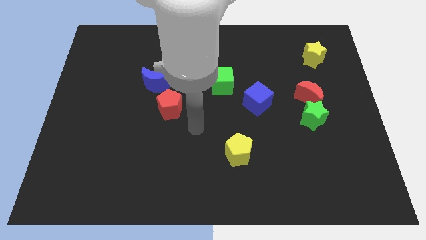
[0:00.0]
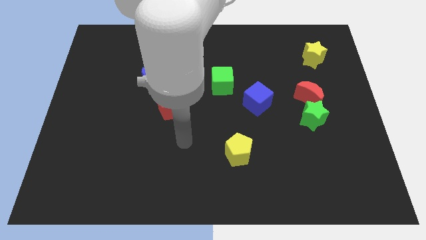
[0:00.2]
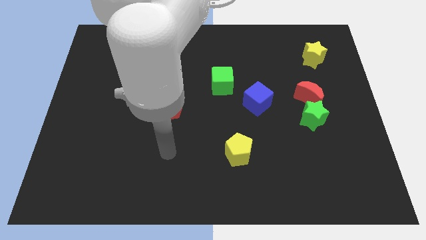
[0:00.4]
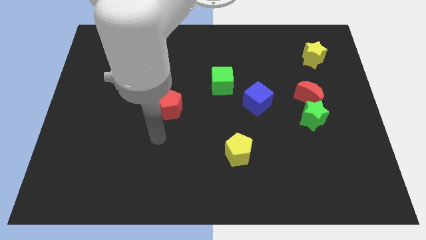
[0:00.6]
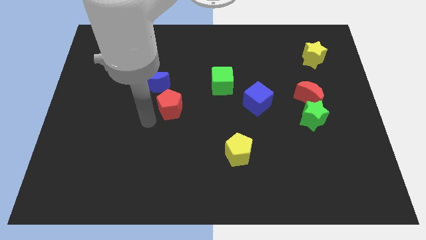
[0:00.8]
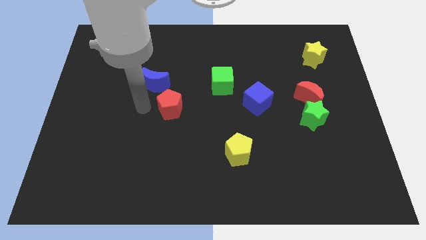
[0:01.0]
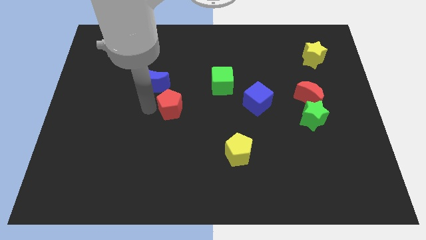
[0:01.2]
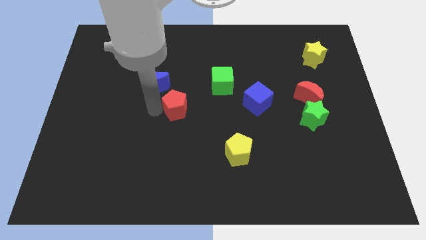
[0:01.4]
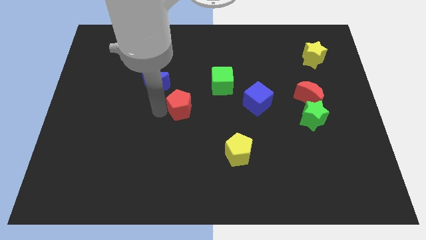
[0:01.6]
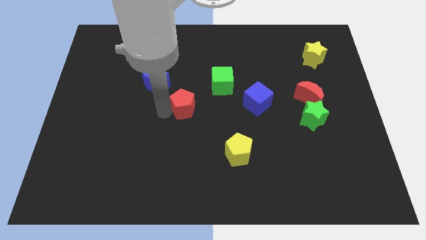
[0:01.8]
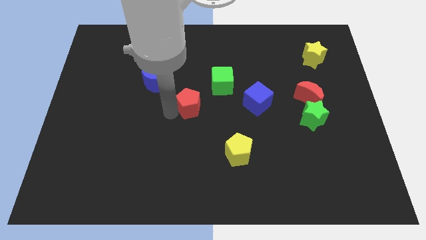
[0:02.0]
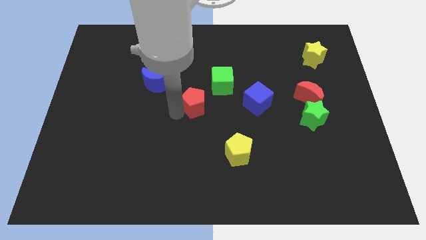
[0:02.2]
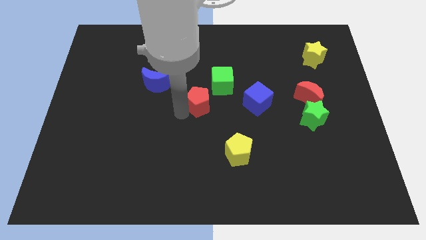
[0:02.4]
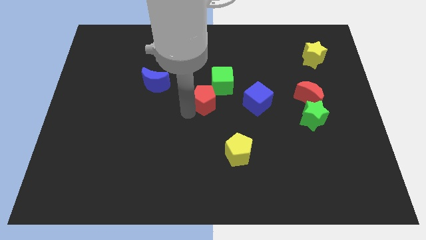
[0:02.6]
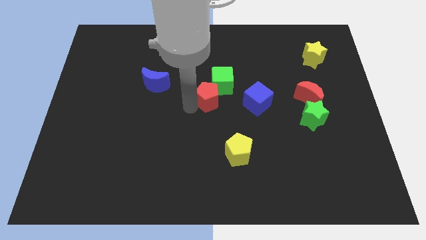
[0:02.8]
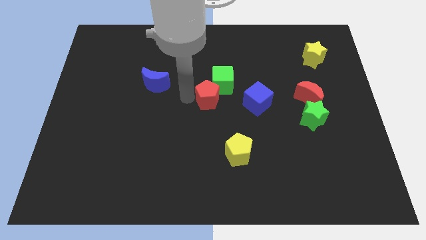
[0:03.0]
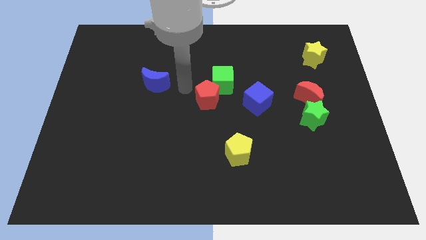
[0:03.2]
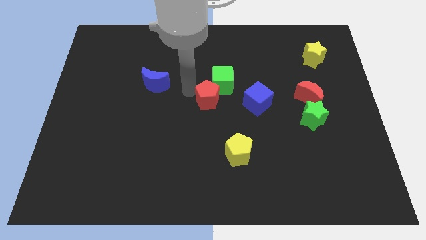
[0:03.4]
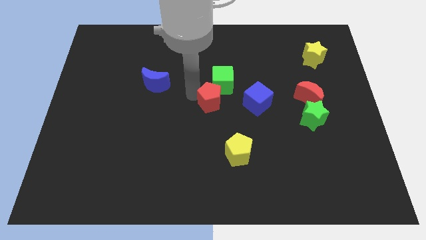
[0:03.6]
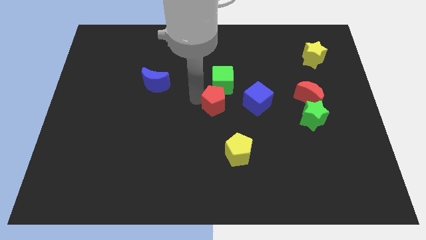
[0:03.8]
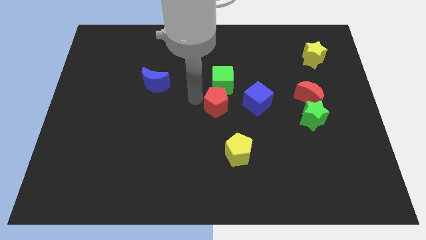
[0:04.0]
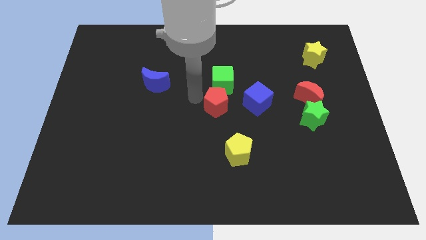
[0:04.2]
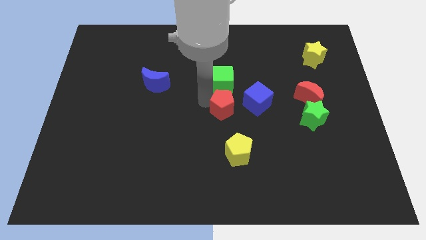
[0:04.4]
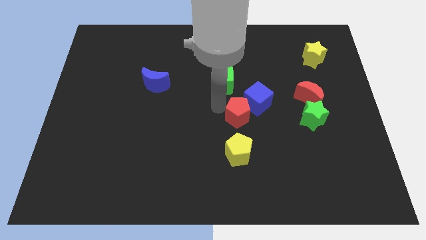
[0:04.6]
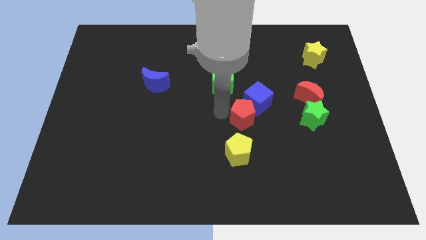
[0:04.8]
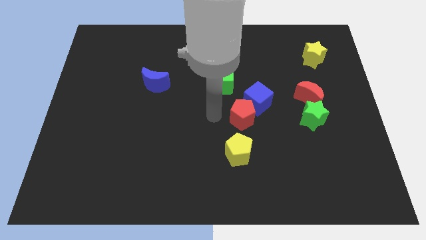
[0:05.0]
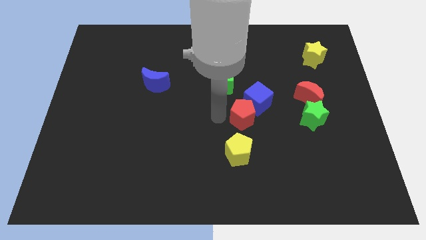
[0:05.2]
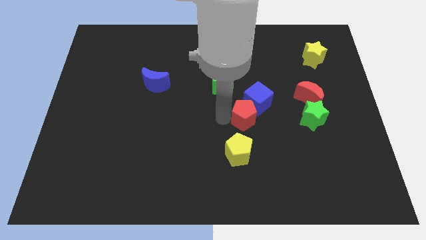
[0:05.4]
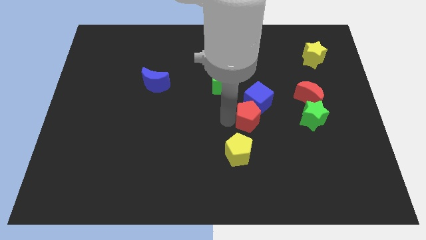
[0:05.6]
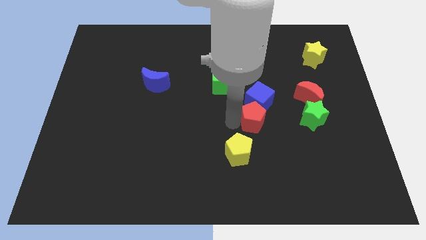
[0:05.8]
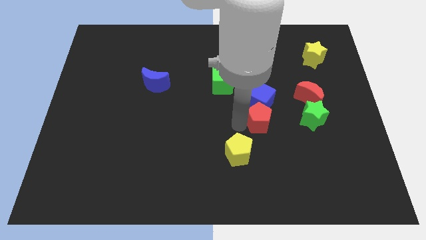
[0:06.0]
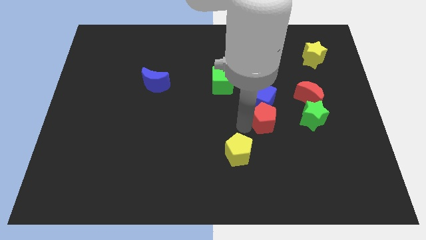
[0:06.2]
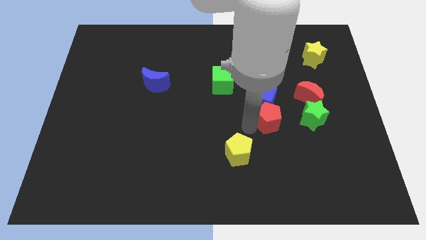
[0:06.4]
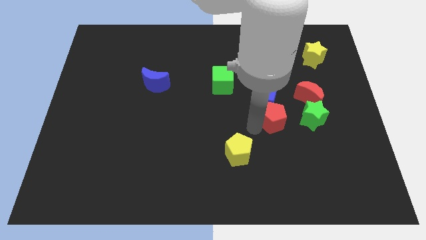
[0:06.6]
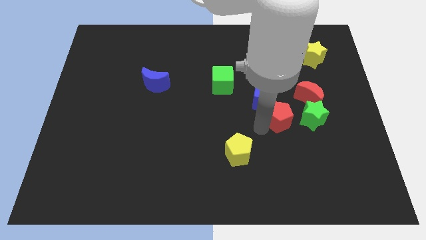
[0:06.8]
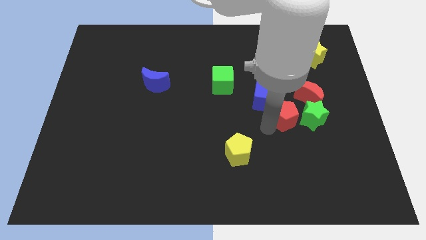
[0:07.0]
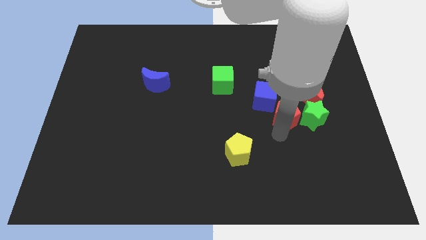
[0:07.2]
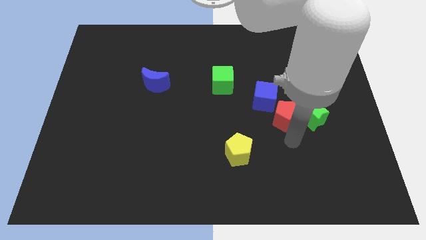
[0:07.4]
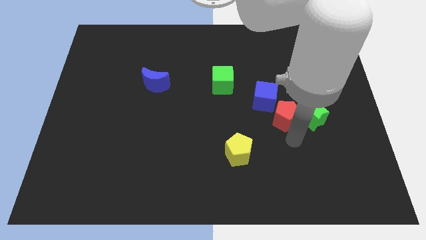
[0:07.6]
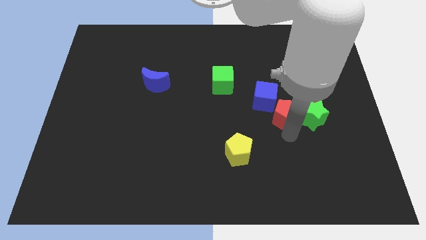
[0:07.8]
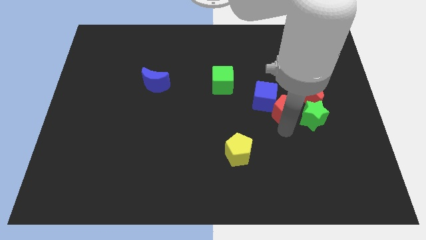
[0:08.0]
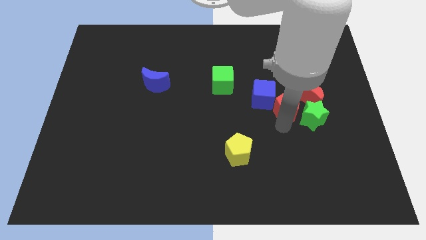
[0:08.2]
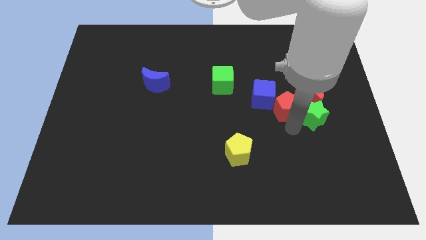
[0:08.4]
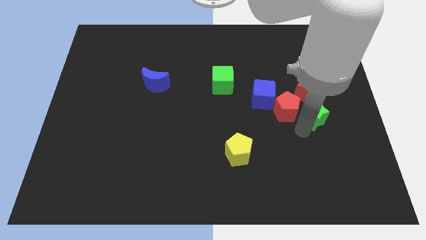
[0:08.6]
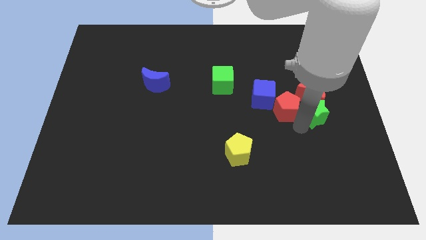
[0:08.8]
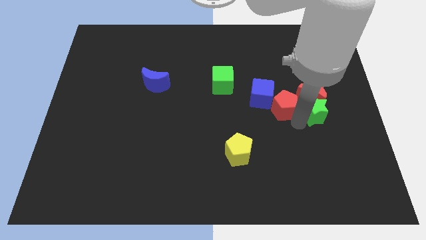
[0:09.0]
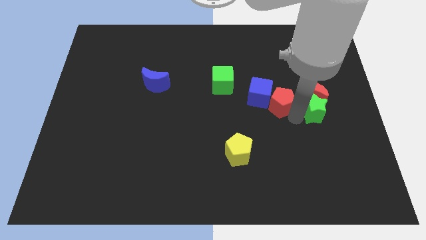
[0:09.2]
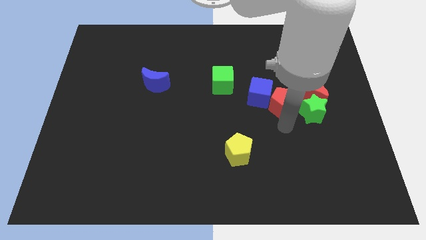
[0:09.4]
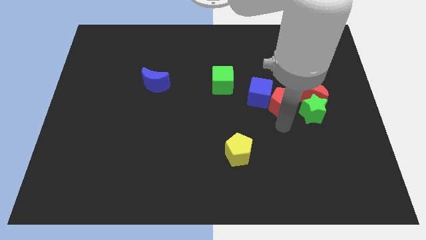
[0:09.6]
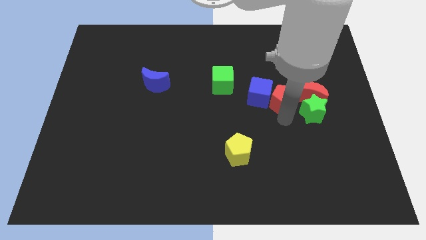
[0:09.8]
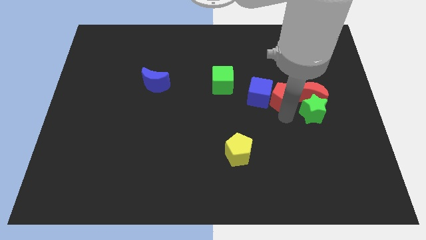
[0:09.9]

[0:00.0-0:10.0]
slide the red pentagon to the top right side of the blue cube

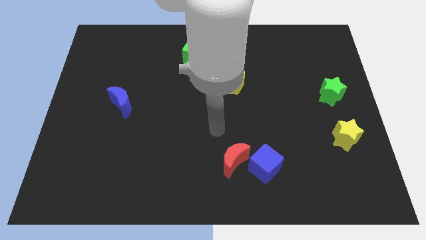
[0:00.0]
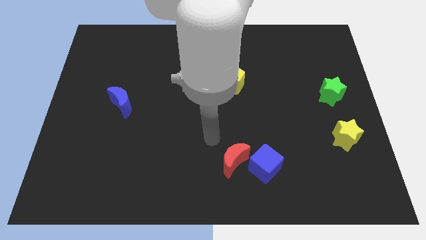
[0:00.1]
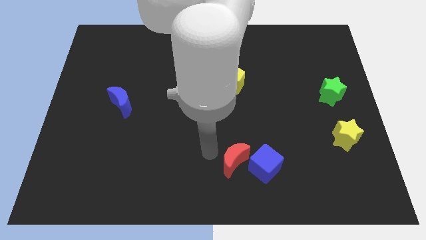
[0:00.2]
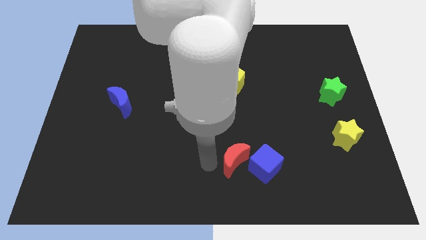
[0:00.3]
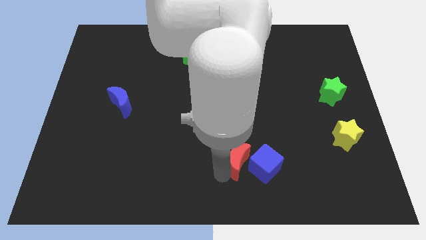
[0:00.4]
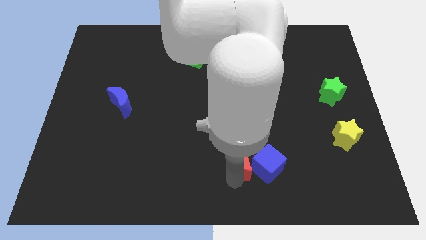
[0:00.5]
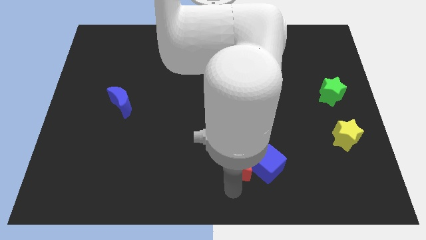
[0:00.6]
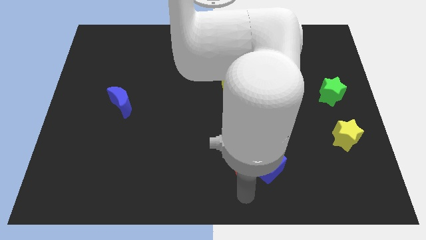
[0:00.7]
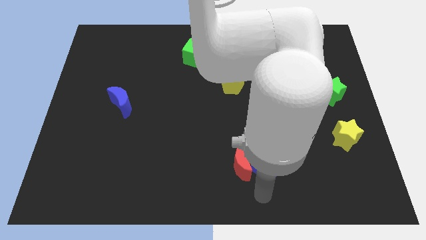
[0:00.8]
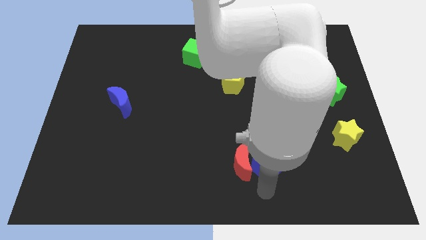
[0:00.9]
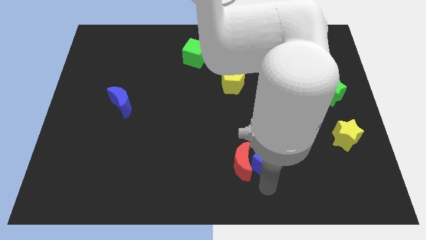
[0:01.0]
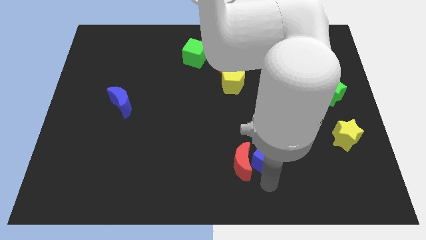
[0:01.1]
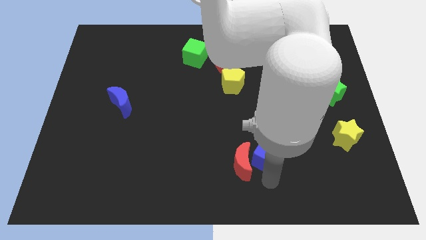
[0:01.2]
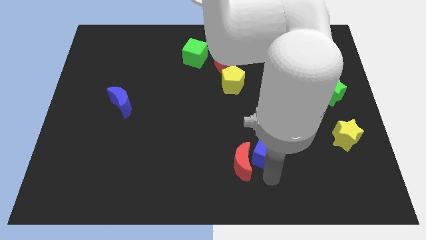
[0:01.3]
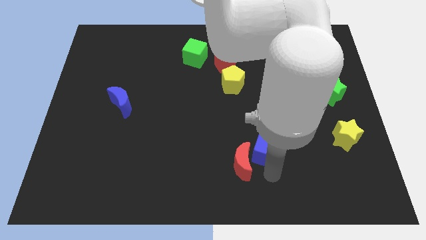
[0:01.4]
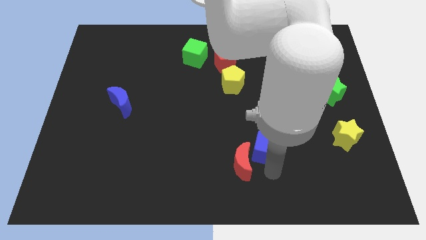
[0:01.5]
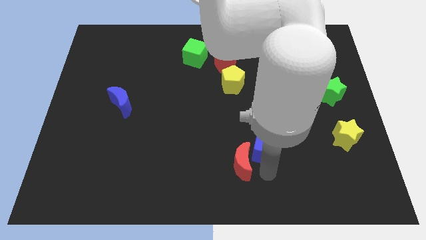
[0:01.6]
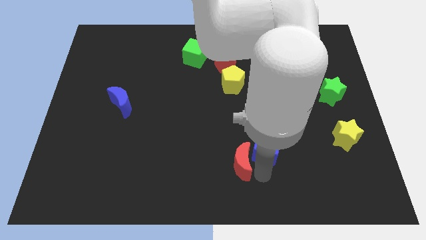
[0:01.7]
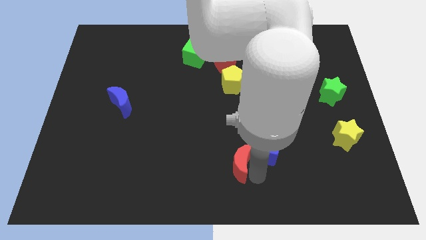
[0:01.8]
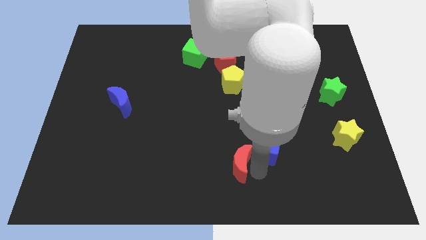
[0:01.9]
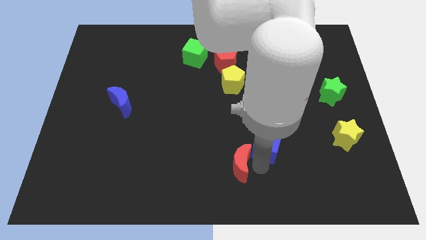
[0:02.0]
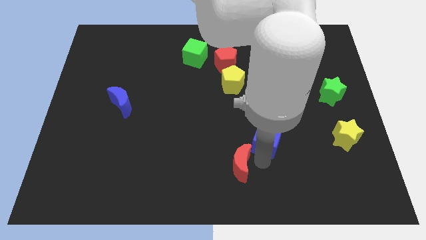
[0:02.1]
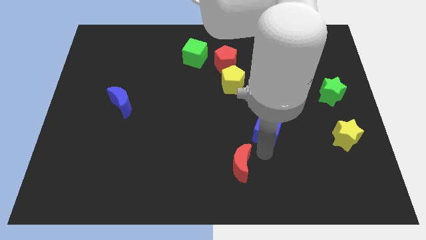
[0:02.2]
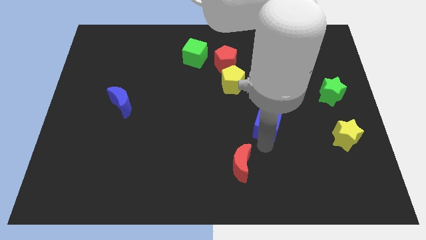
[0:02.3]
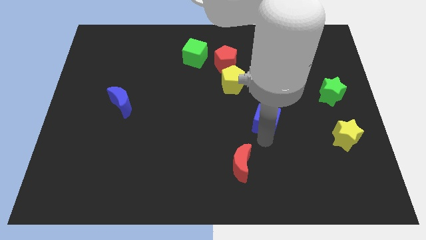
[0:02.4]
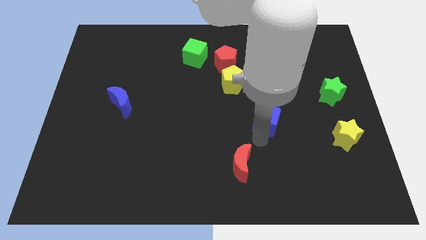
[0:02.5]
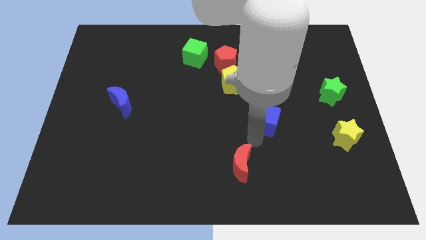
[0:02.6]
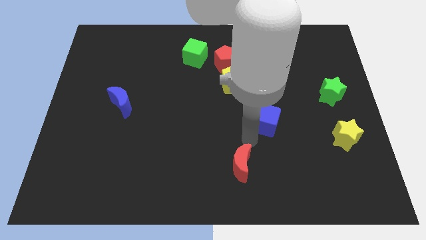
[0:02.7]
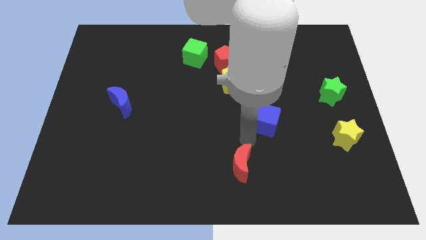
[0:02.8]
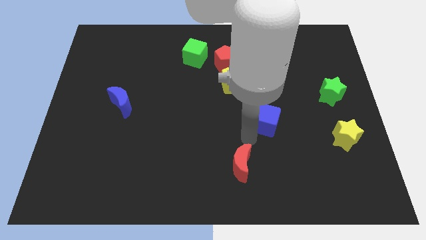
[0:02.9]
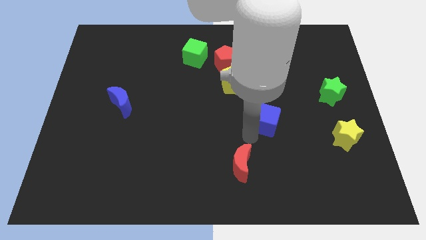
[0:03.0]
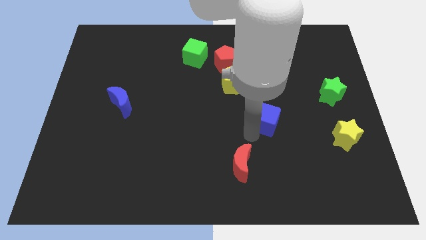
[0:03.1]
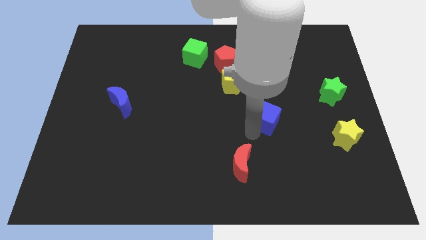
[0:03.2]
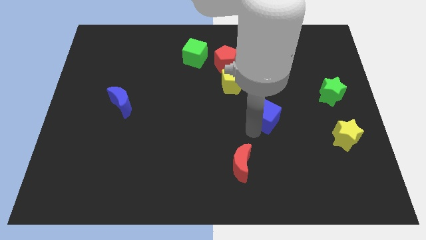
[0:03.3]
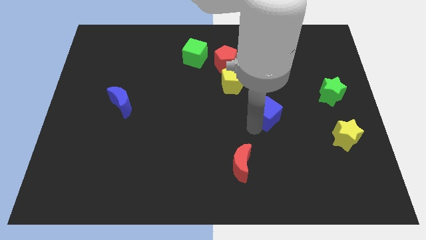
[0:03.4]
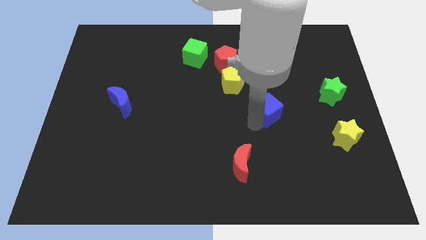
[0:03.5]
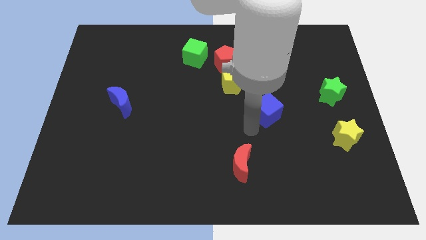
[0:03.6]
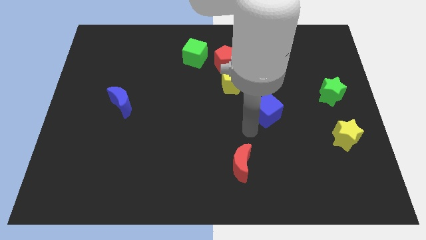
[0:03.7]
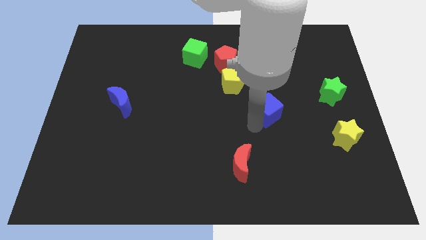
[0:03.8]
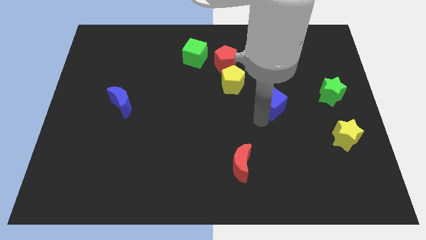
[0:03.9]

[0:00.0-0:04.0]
slide the blue cube just left of the green star
